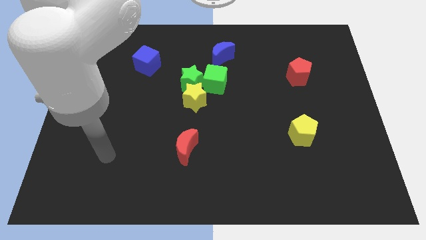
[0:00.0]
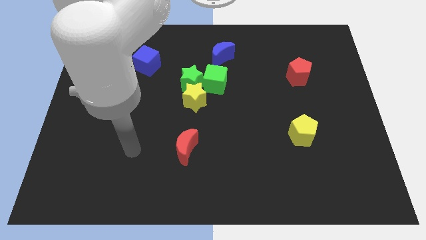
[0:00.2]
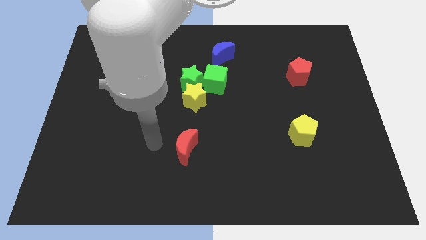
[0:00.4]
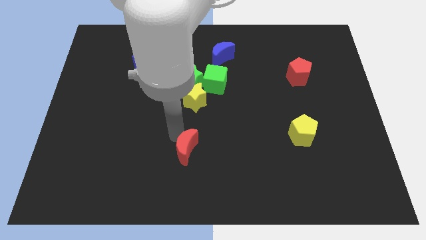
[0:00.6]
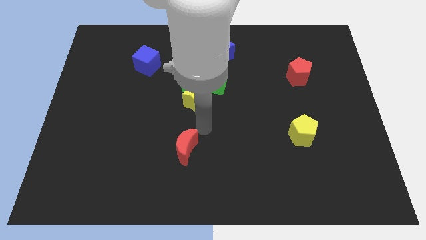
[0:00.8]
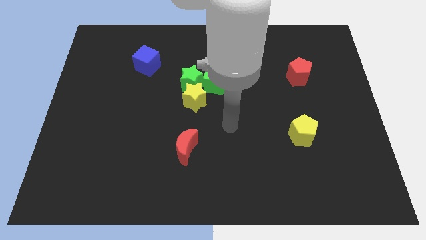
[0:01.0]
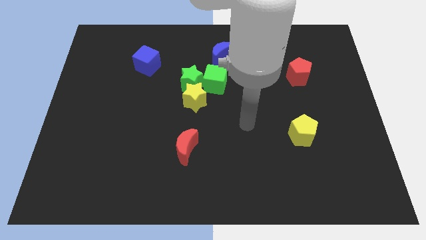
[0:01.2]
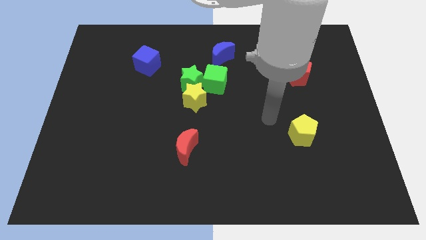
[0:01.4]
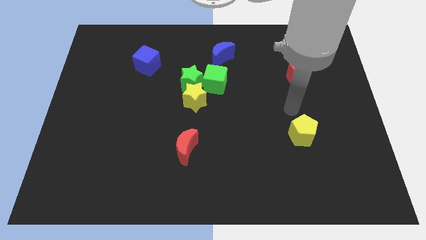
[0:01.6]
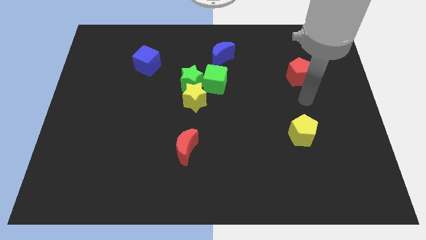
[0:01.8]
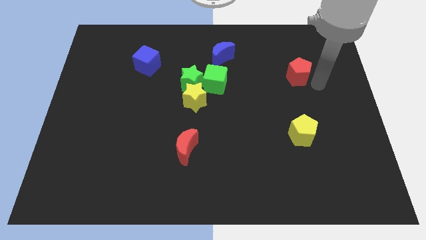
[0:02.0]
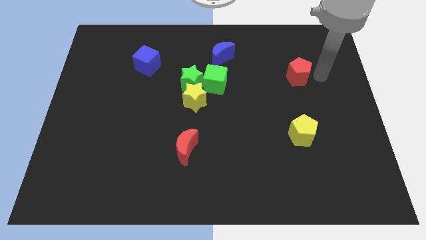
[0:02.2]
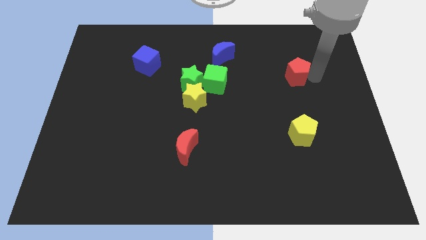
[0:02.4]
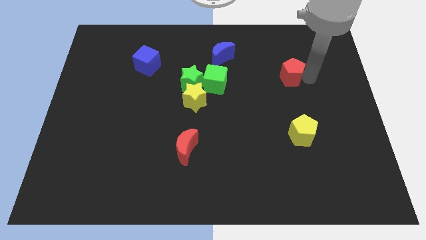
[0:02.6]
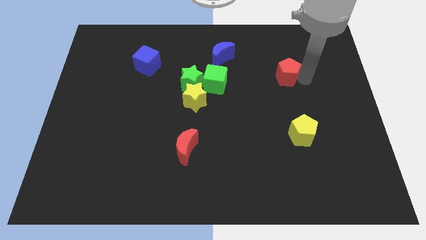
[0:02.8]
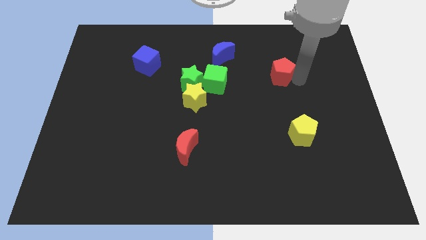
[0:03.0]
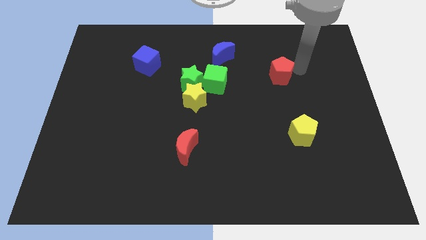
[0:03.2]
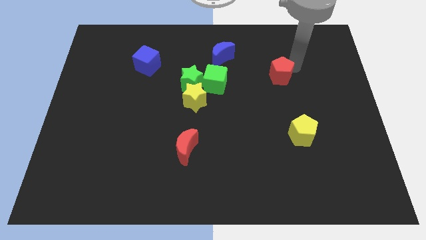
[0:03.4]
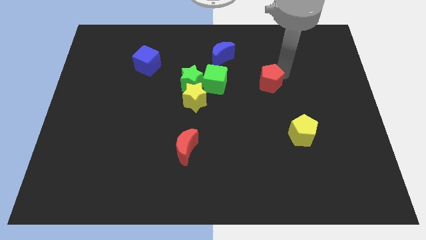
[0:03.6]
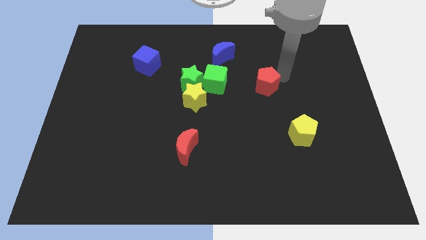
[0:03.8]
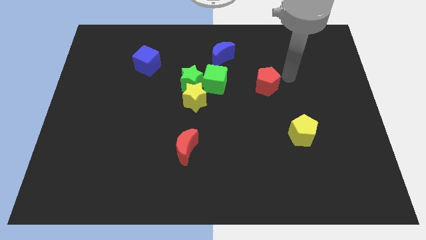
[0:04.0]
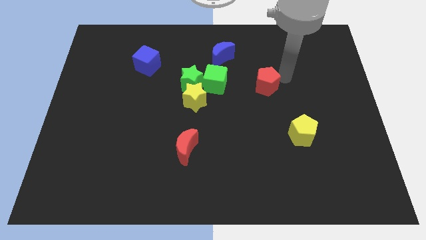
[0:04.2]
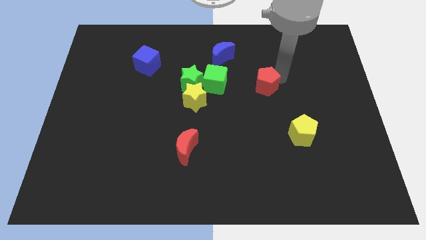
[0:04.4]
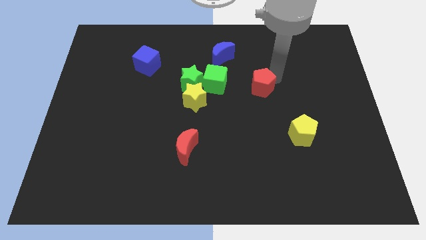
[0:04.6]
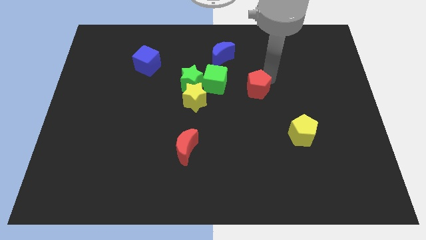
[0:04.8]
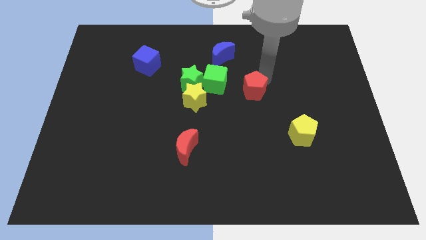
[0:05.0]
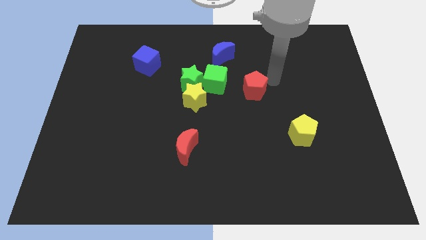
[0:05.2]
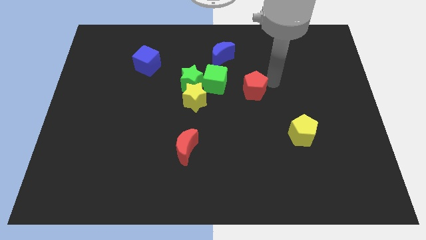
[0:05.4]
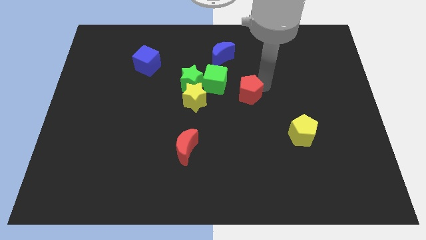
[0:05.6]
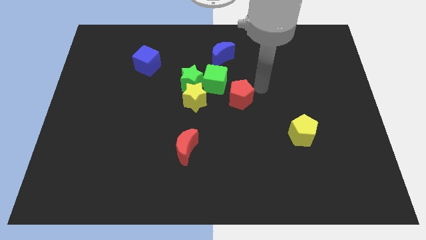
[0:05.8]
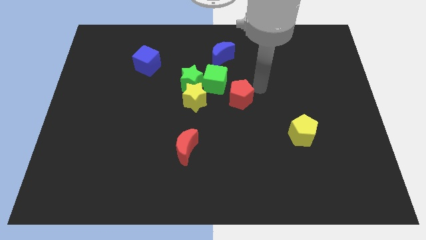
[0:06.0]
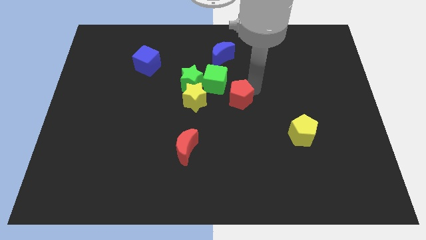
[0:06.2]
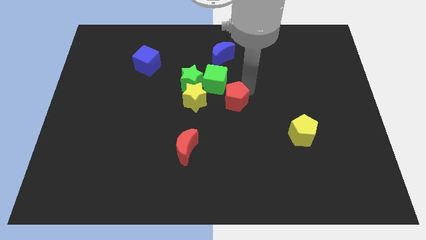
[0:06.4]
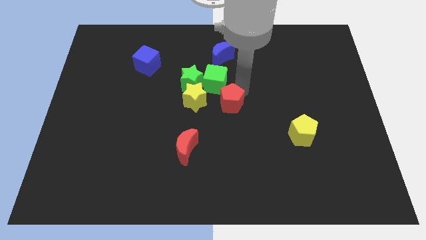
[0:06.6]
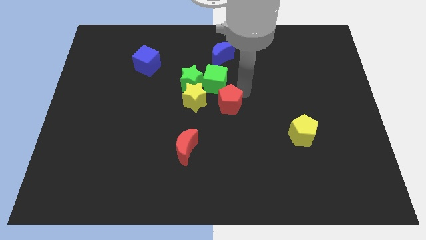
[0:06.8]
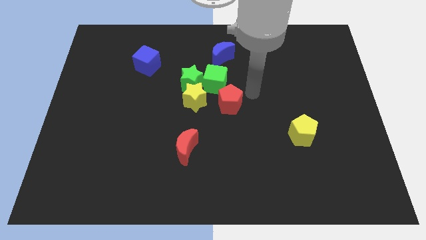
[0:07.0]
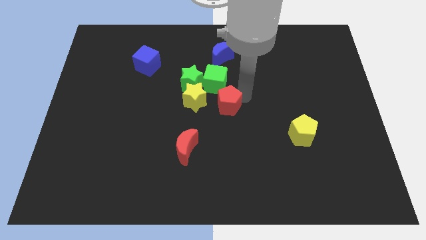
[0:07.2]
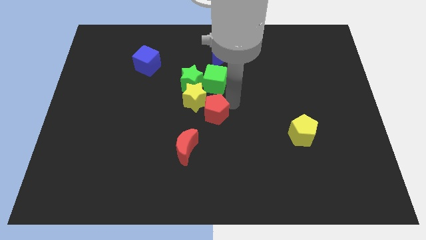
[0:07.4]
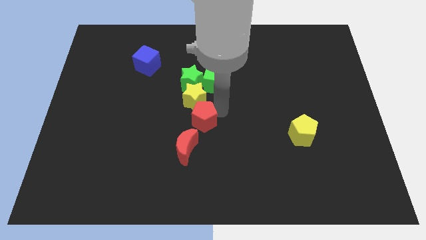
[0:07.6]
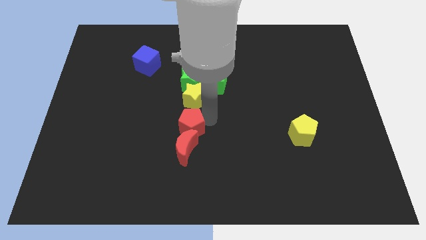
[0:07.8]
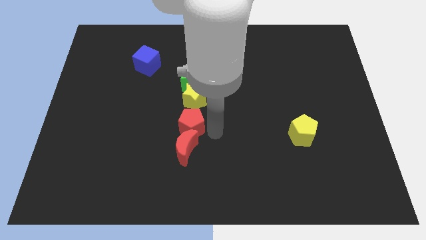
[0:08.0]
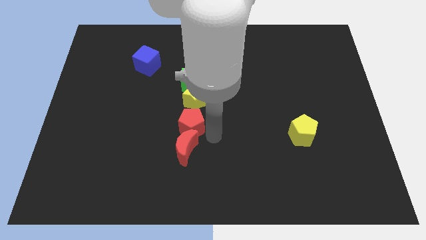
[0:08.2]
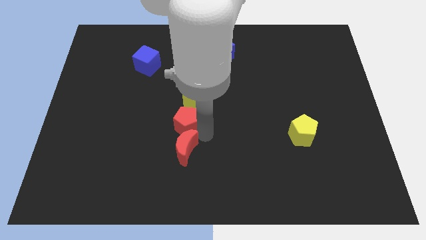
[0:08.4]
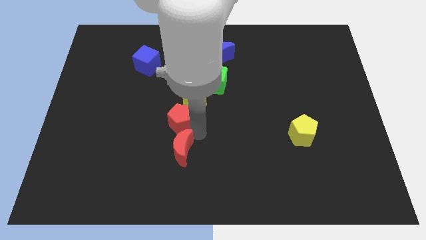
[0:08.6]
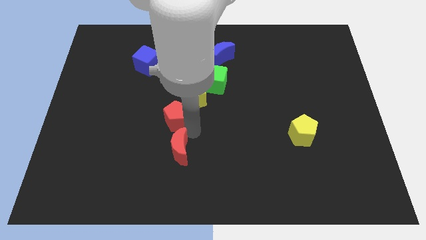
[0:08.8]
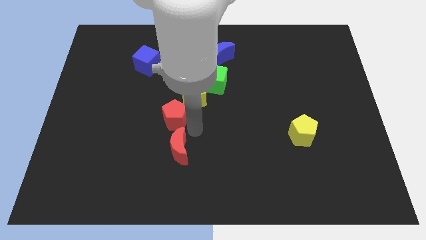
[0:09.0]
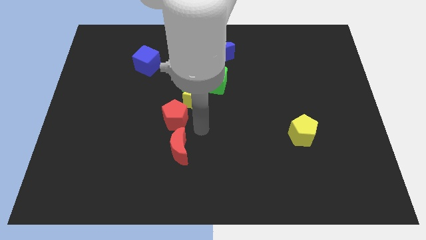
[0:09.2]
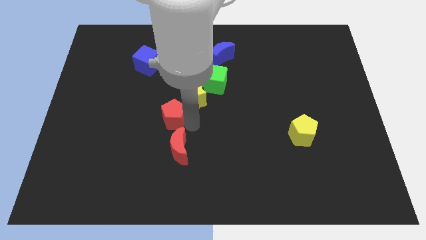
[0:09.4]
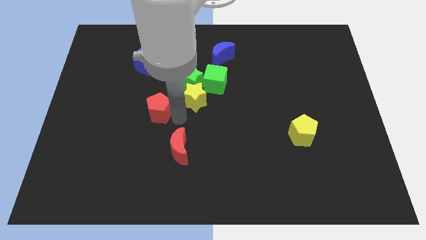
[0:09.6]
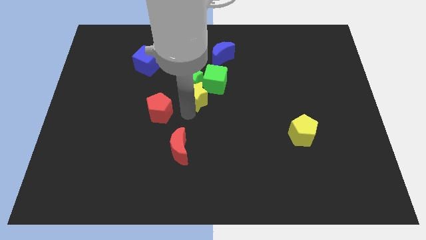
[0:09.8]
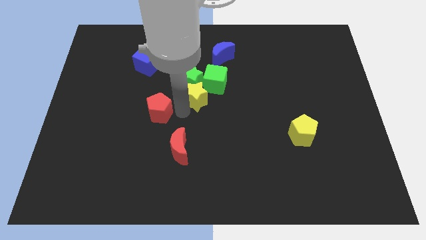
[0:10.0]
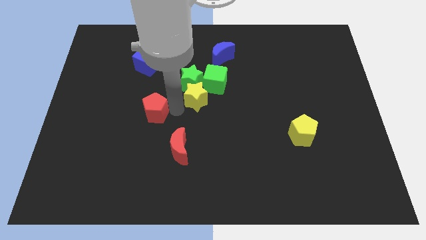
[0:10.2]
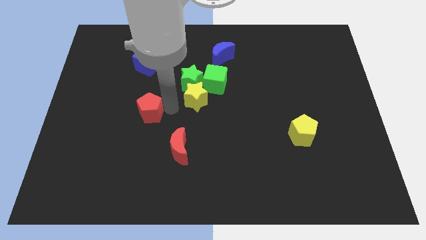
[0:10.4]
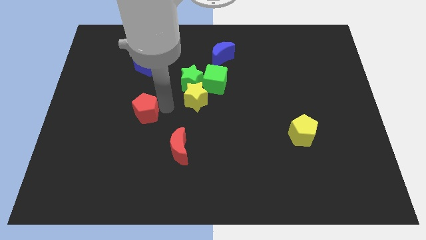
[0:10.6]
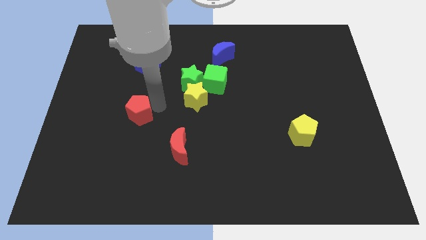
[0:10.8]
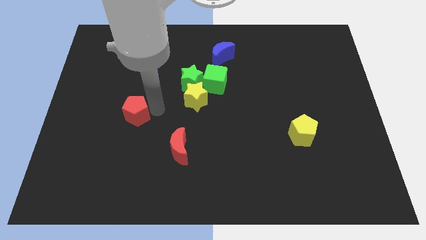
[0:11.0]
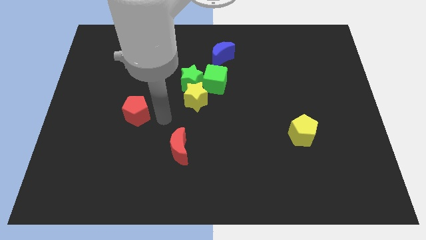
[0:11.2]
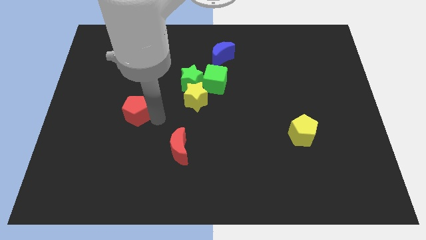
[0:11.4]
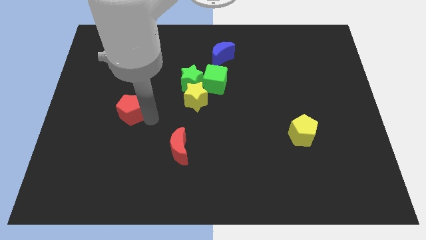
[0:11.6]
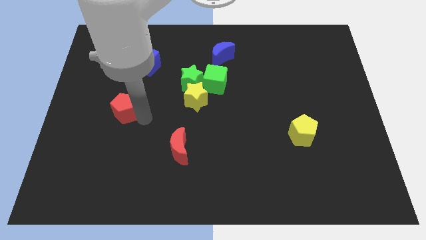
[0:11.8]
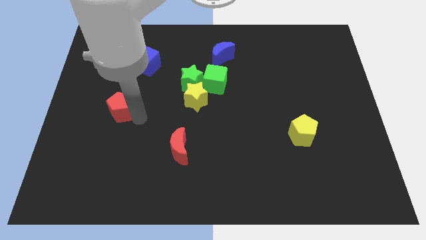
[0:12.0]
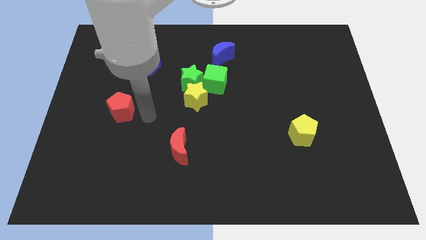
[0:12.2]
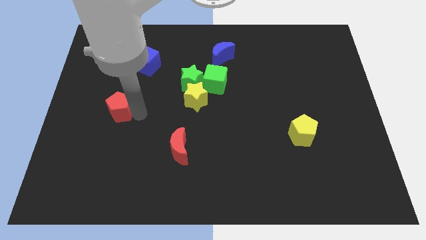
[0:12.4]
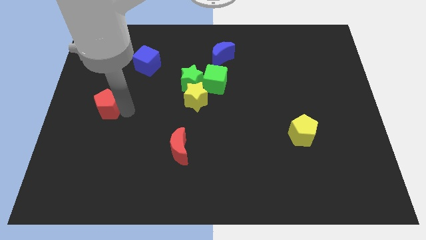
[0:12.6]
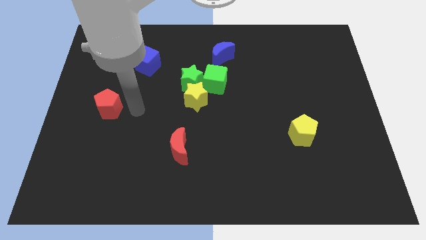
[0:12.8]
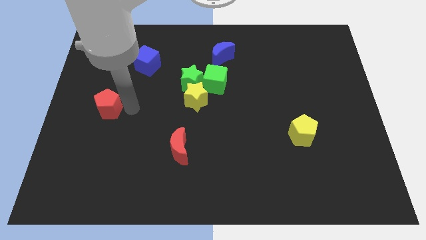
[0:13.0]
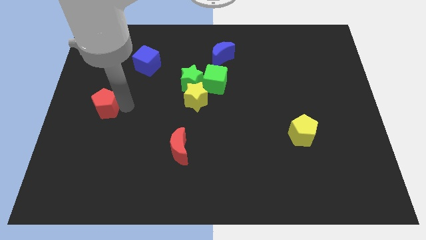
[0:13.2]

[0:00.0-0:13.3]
put the red pentagon to the left side

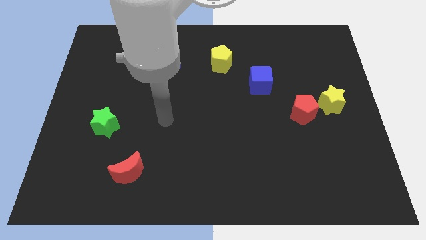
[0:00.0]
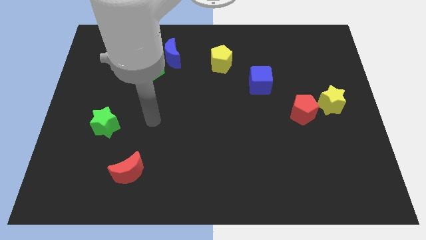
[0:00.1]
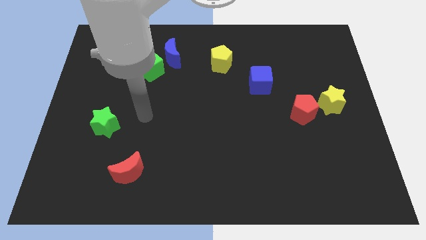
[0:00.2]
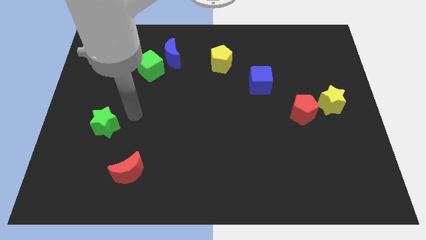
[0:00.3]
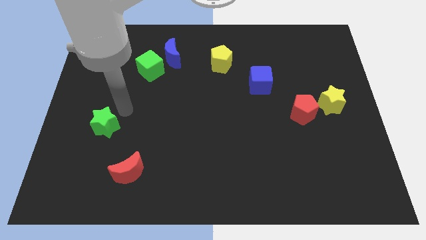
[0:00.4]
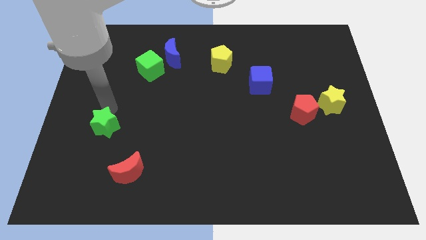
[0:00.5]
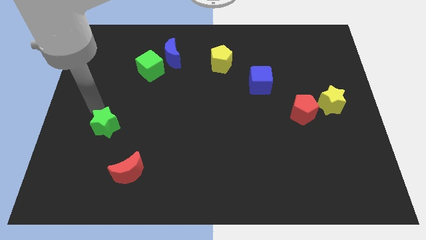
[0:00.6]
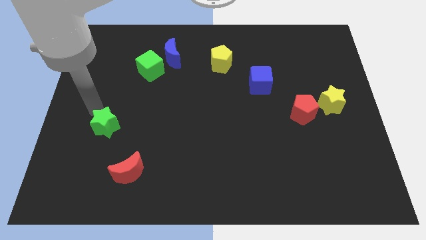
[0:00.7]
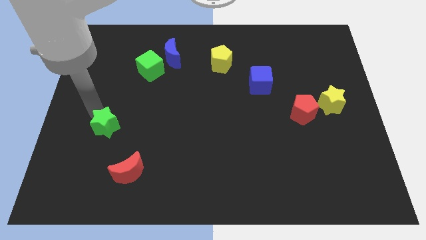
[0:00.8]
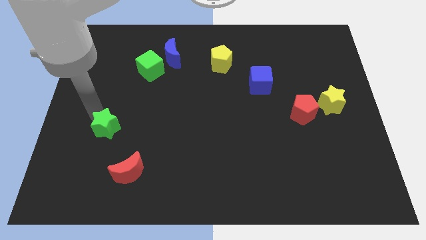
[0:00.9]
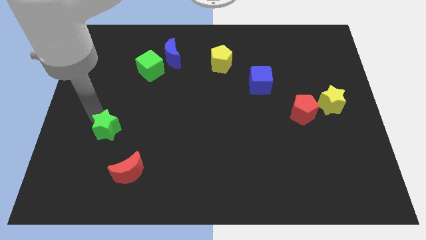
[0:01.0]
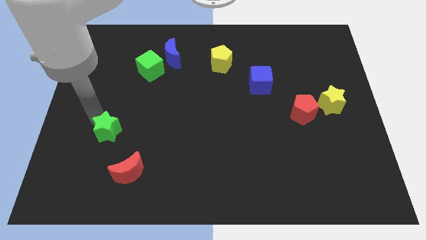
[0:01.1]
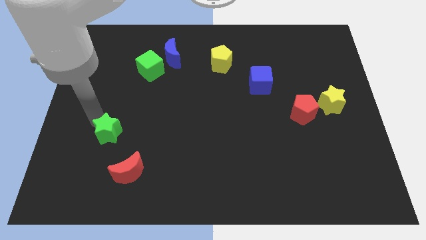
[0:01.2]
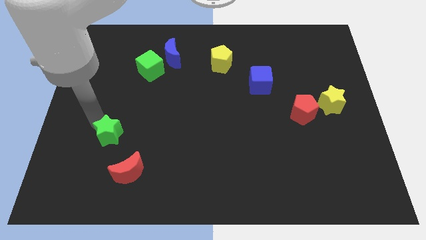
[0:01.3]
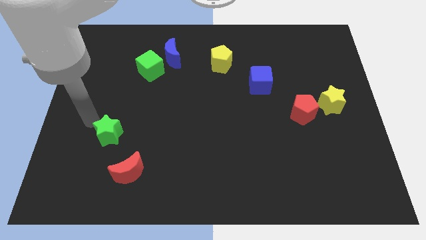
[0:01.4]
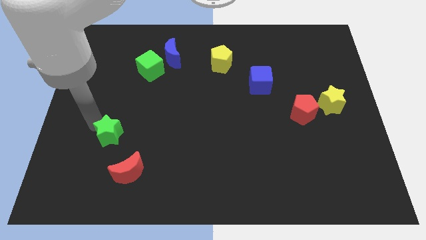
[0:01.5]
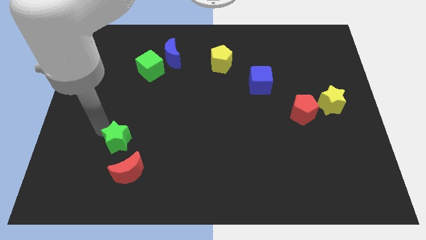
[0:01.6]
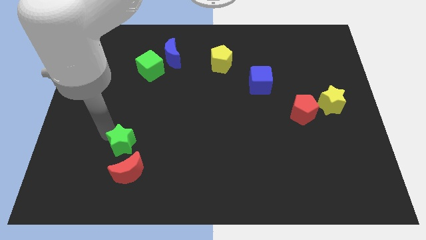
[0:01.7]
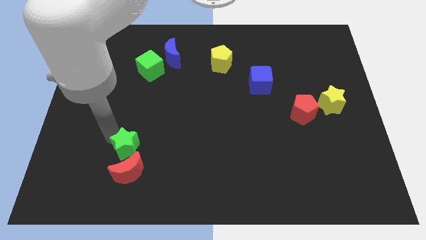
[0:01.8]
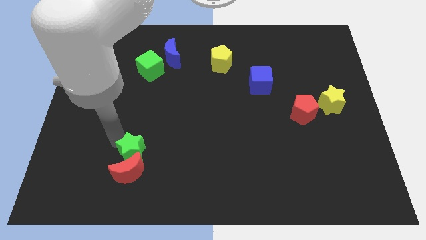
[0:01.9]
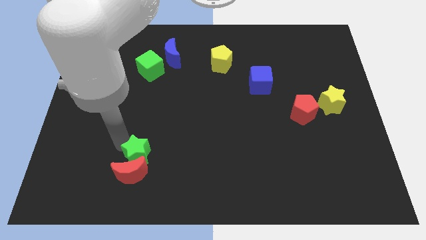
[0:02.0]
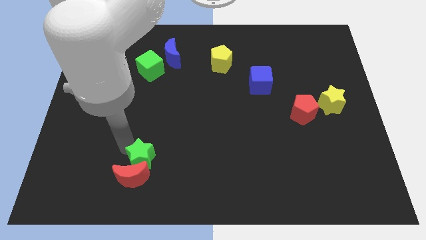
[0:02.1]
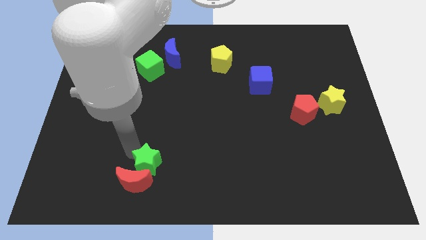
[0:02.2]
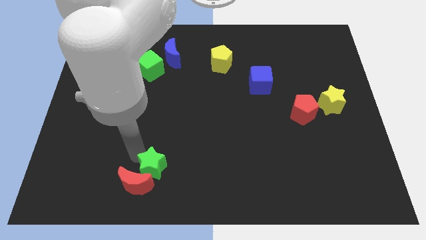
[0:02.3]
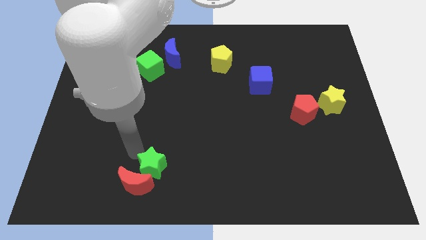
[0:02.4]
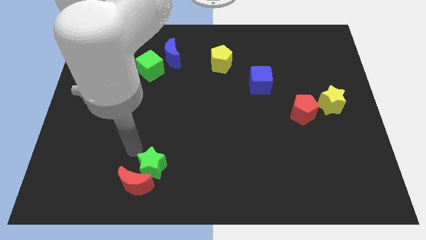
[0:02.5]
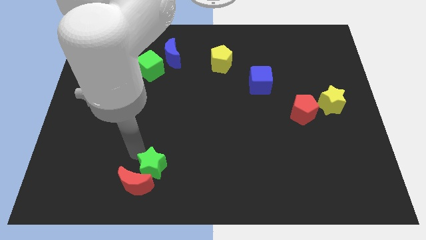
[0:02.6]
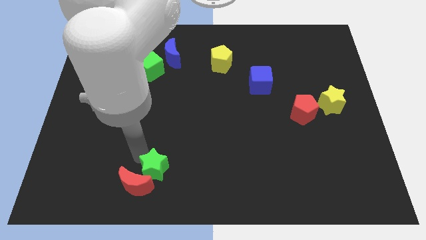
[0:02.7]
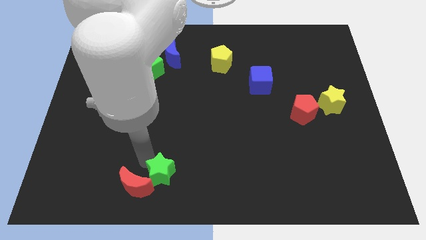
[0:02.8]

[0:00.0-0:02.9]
push the green star to the bottom
